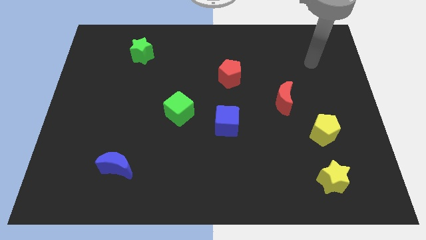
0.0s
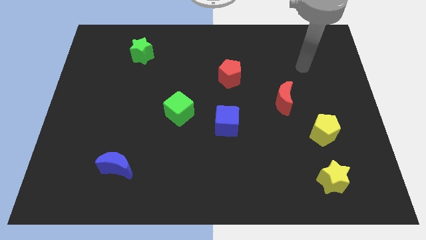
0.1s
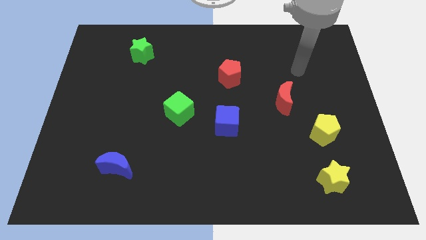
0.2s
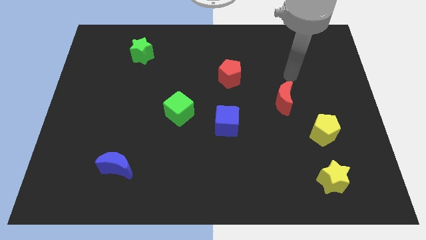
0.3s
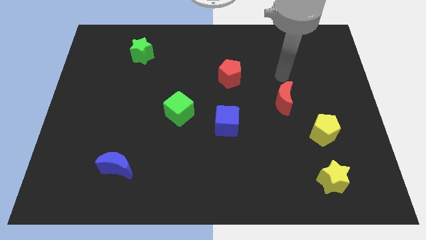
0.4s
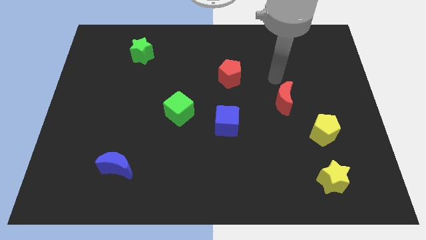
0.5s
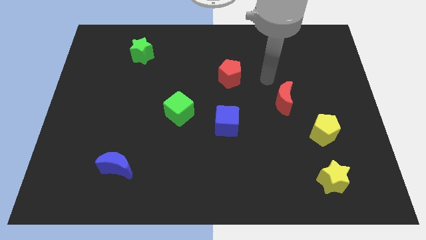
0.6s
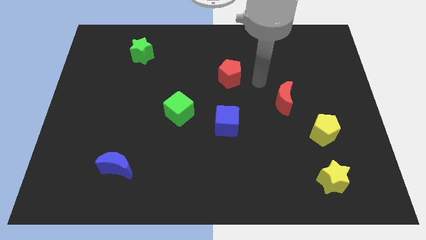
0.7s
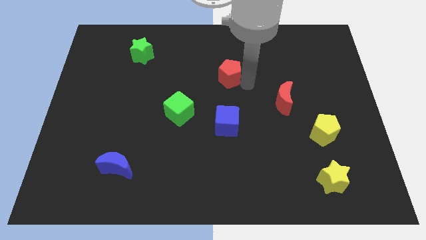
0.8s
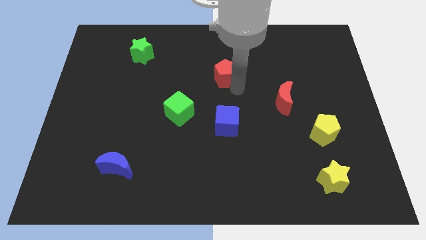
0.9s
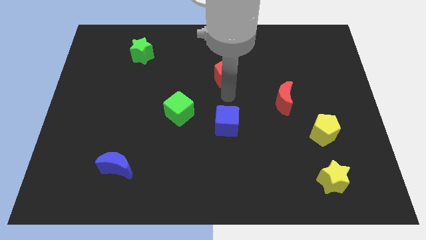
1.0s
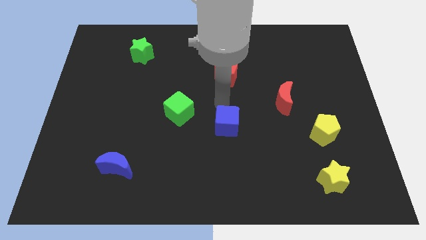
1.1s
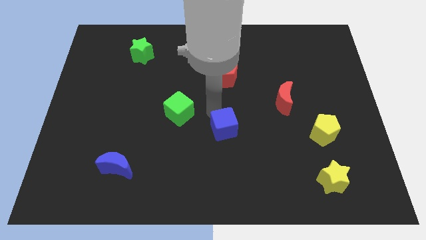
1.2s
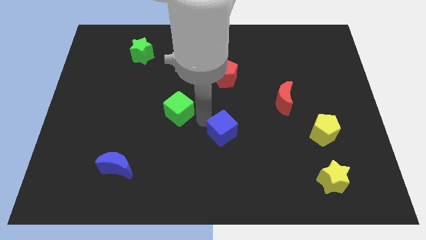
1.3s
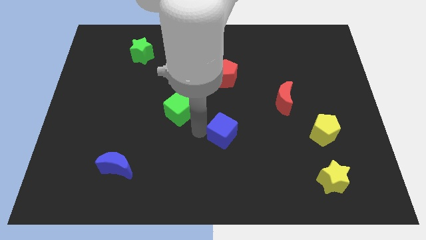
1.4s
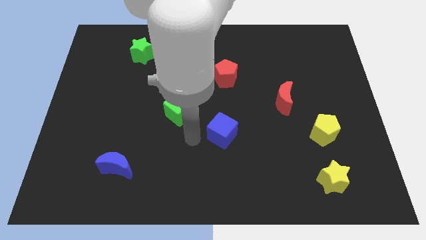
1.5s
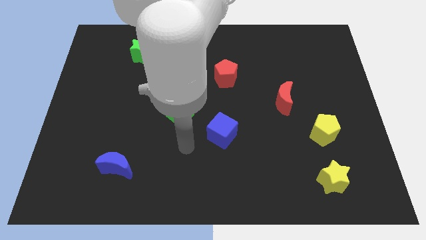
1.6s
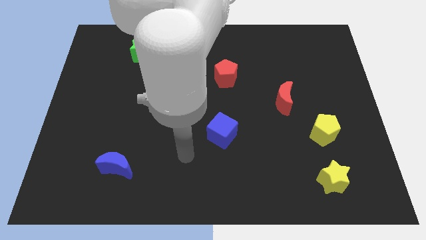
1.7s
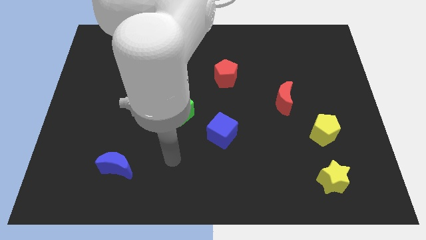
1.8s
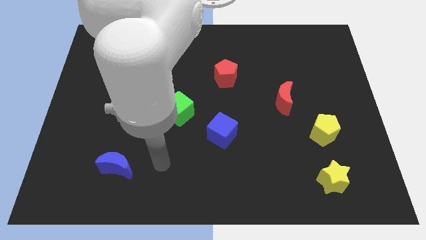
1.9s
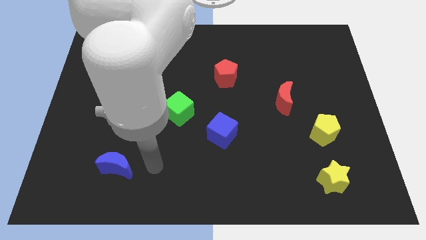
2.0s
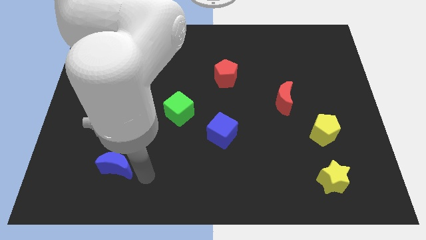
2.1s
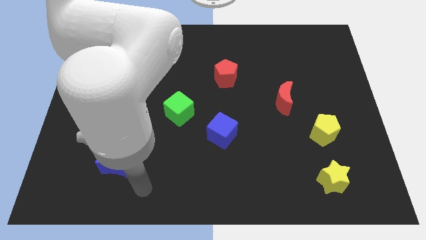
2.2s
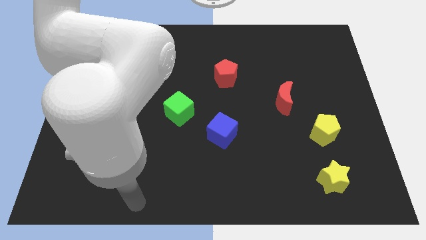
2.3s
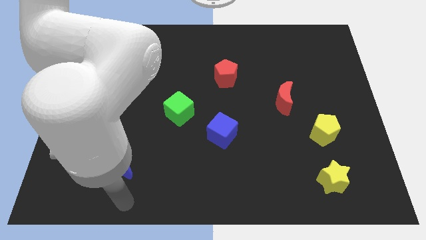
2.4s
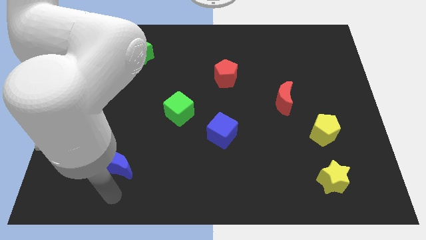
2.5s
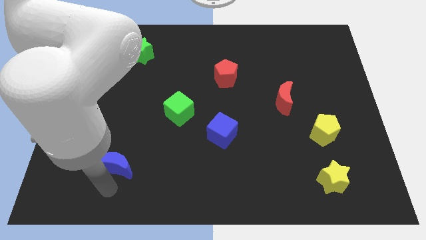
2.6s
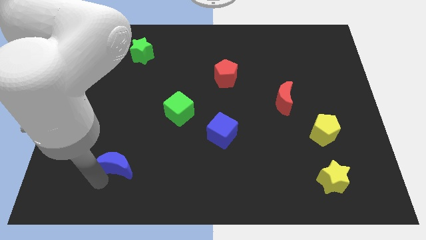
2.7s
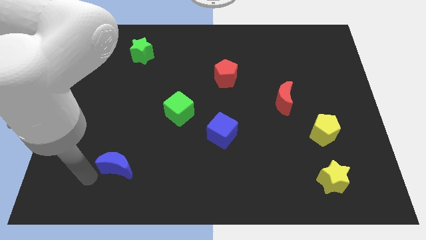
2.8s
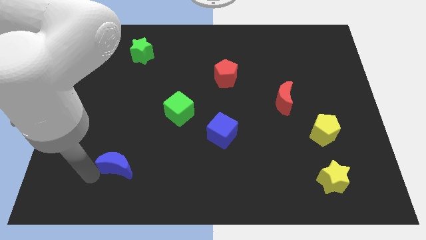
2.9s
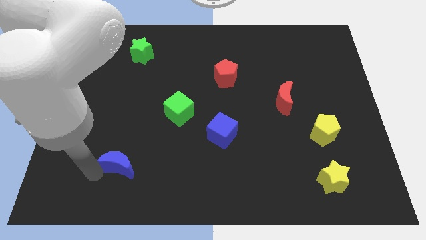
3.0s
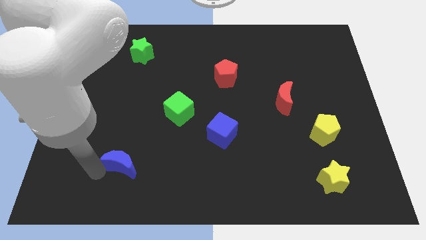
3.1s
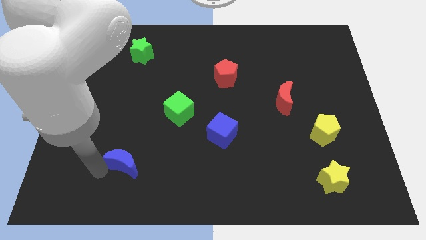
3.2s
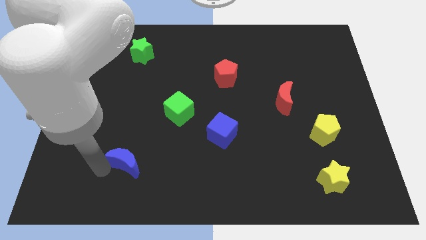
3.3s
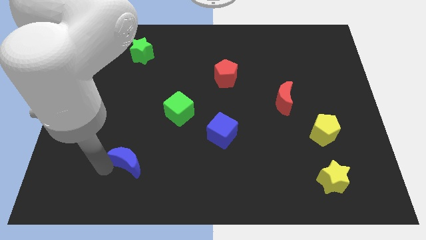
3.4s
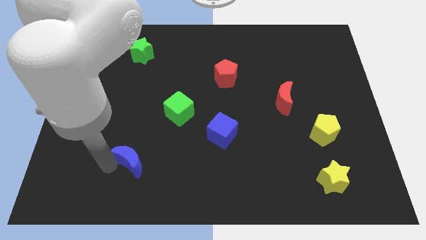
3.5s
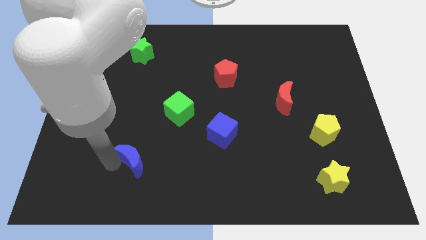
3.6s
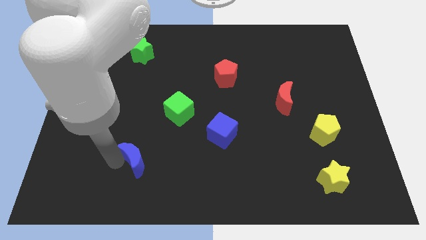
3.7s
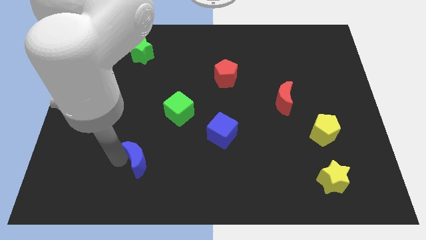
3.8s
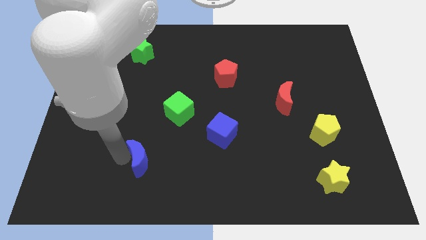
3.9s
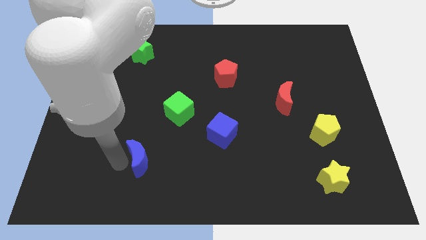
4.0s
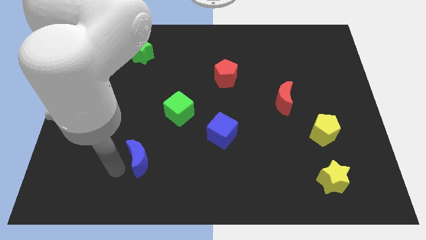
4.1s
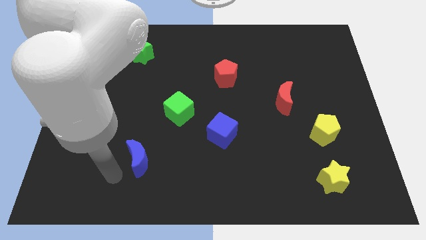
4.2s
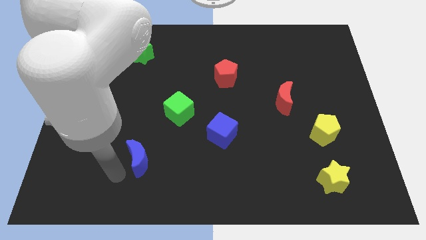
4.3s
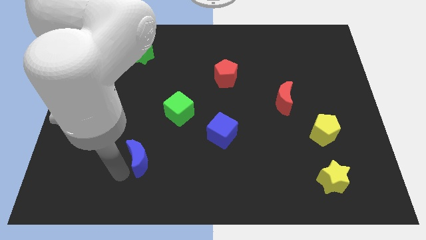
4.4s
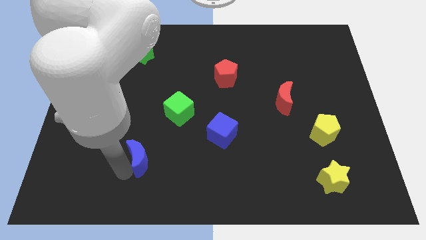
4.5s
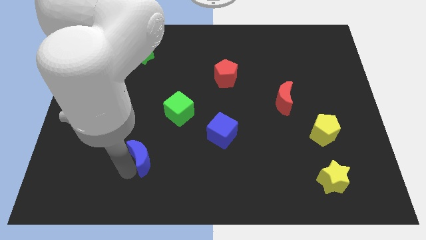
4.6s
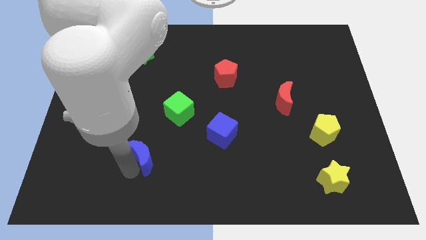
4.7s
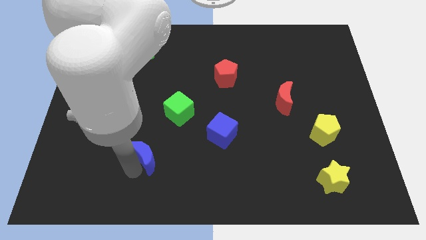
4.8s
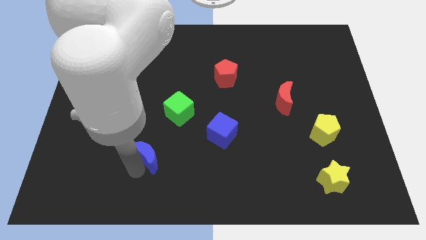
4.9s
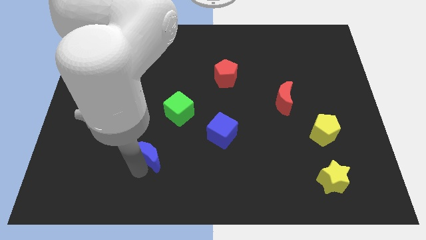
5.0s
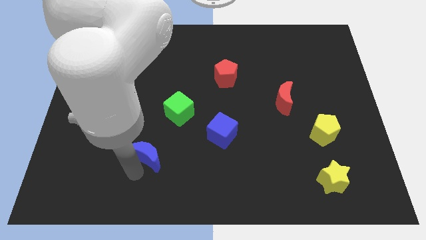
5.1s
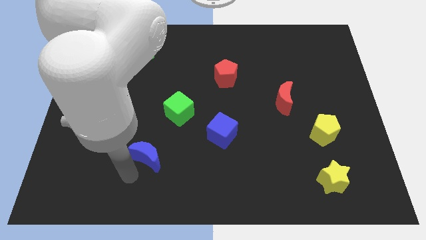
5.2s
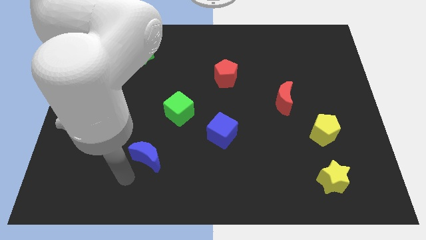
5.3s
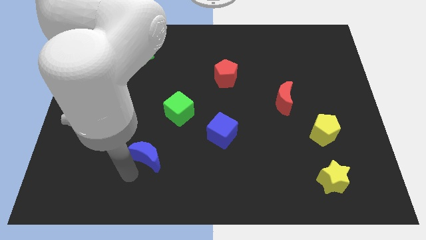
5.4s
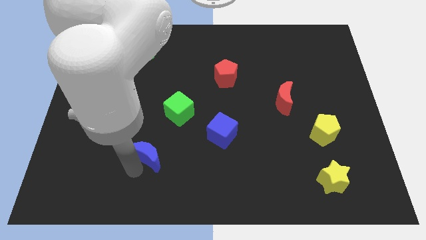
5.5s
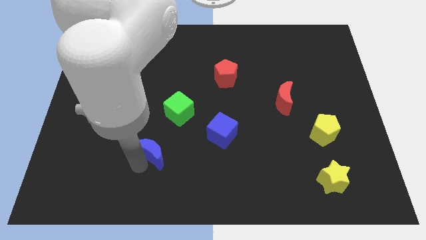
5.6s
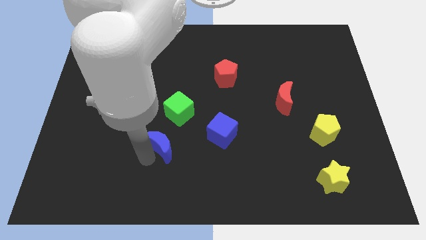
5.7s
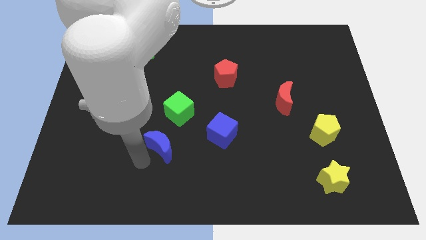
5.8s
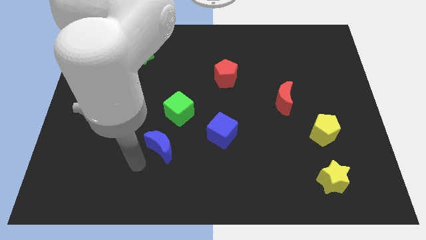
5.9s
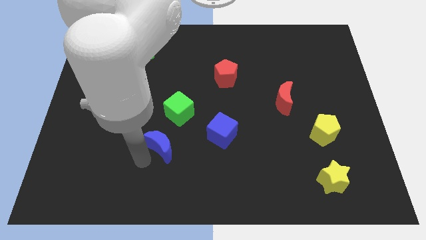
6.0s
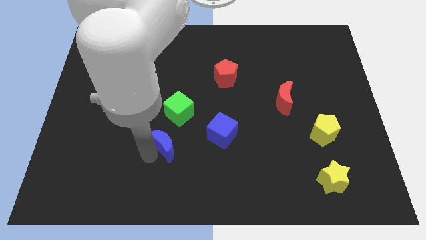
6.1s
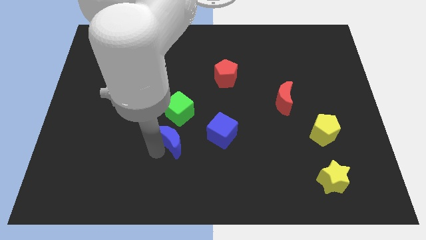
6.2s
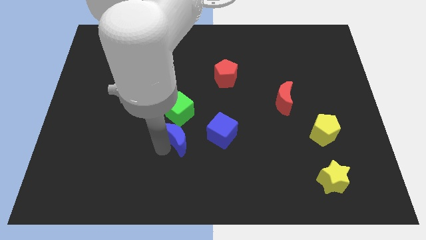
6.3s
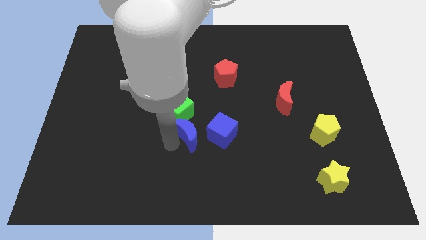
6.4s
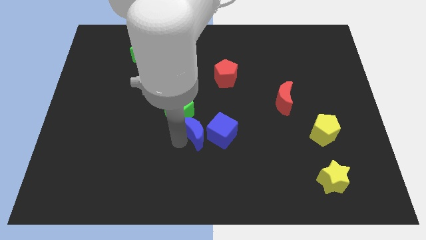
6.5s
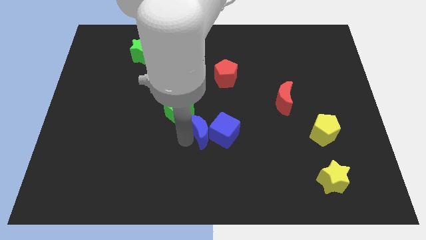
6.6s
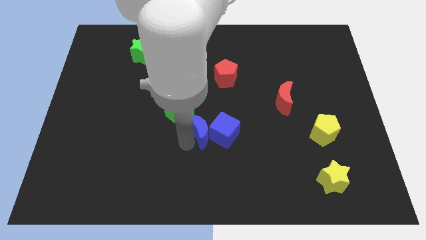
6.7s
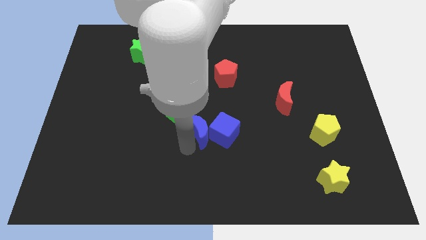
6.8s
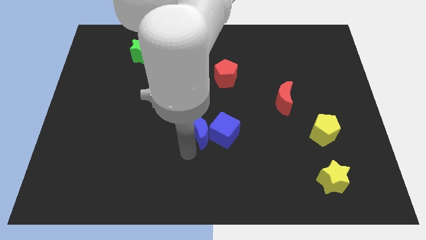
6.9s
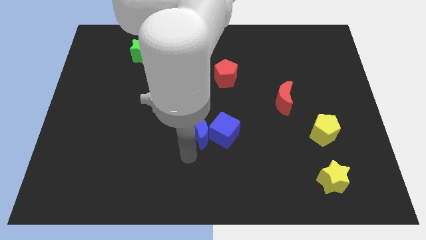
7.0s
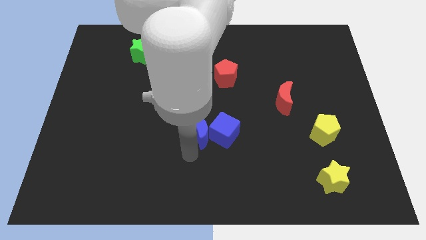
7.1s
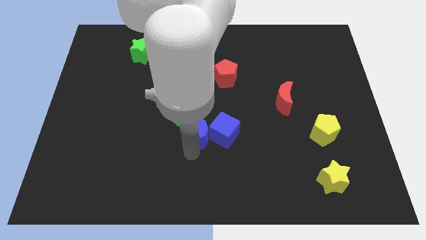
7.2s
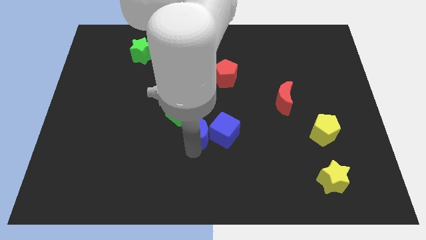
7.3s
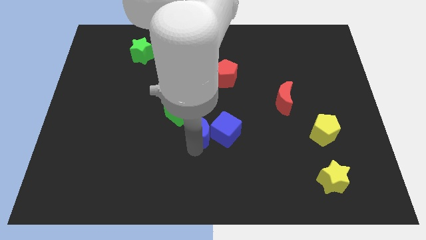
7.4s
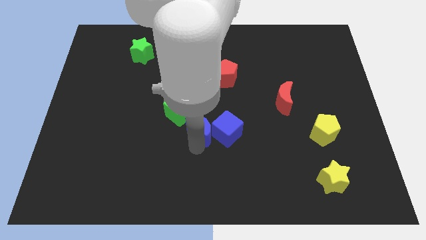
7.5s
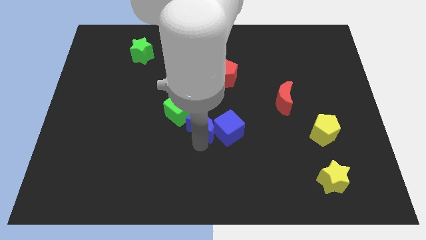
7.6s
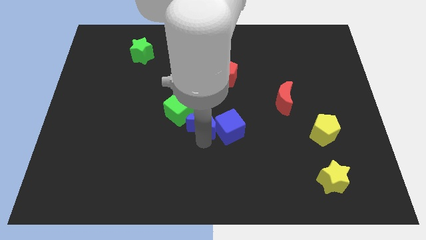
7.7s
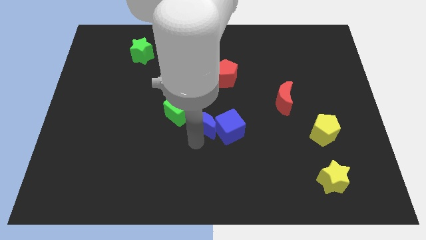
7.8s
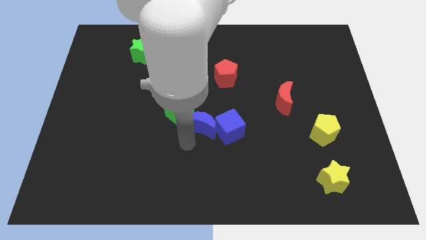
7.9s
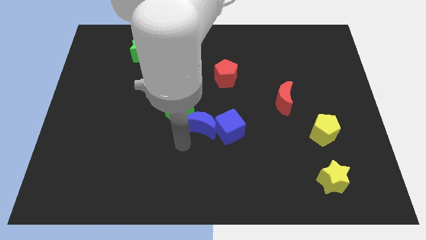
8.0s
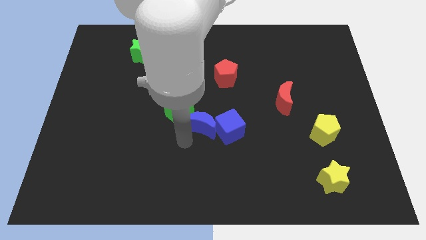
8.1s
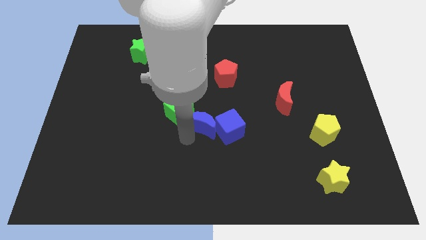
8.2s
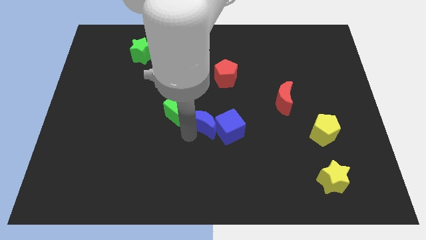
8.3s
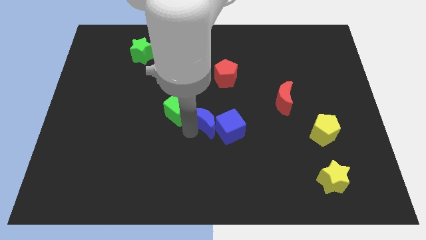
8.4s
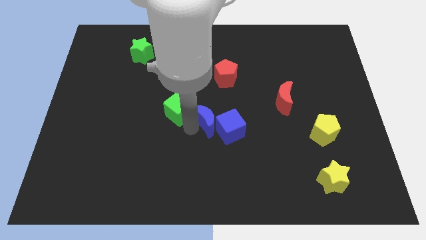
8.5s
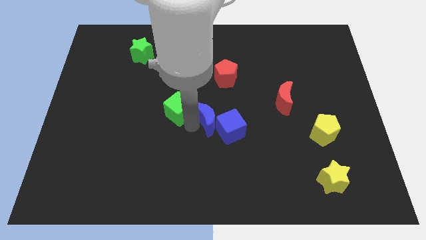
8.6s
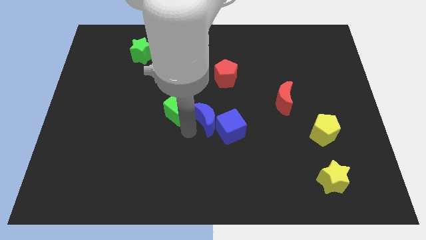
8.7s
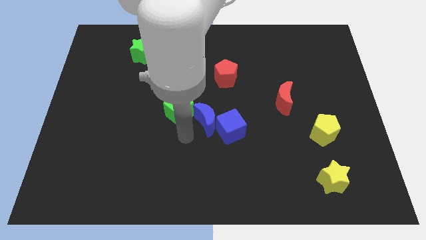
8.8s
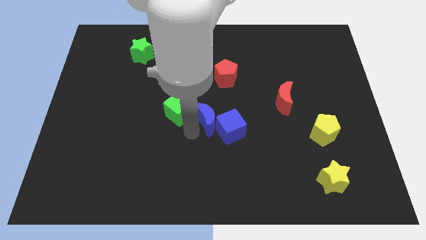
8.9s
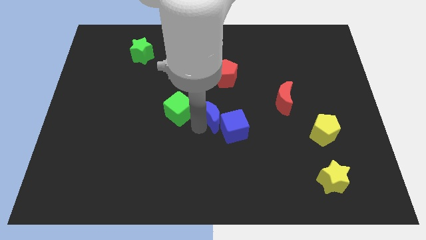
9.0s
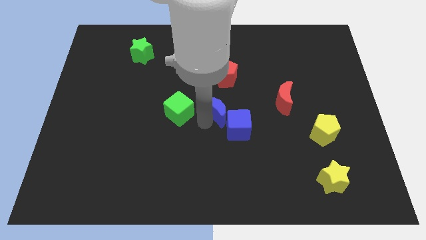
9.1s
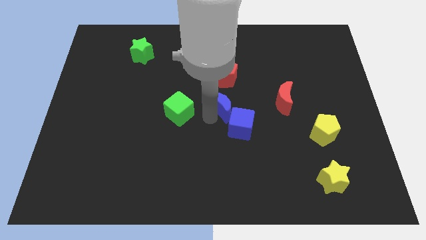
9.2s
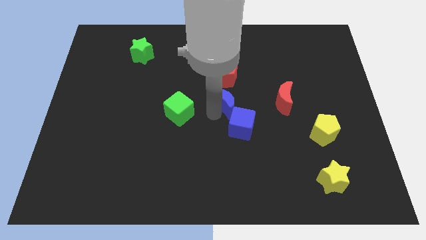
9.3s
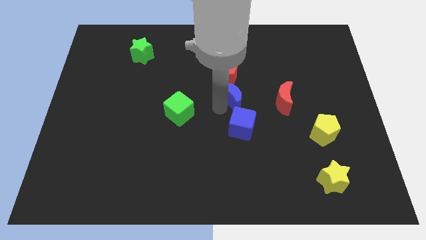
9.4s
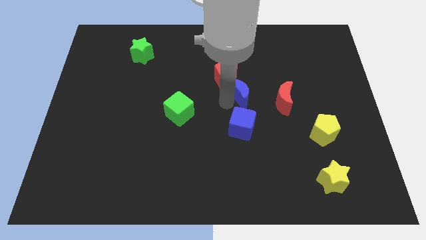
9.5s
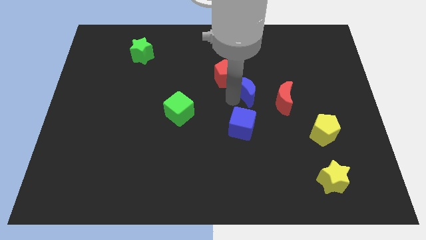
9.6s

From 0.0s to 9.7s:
push the blue moon diagonally up and to the left of the red moon
